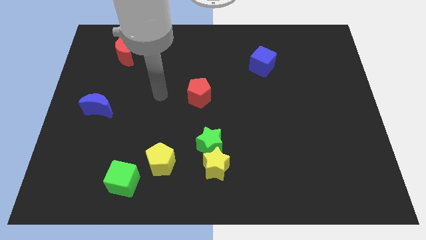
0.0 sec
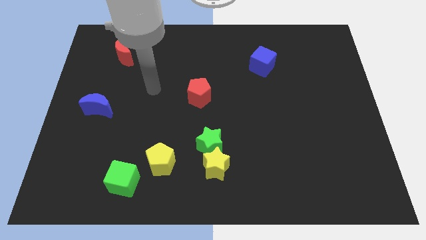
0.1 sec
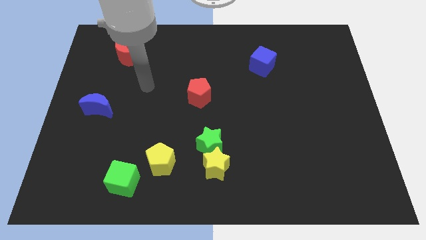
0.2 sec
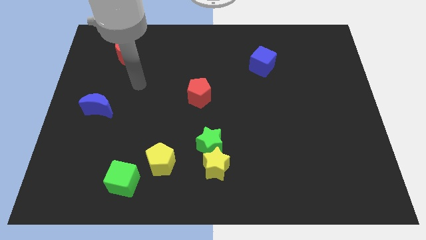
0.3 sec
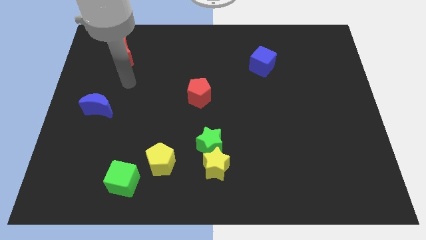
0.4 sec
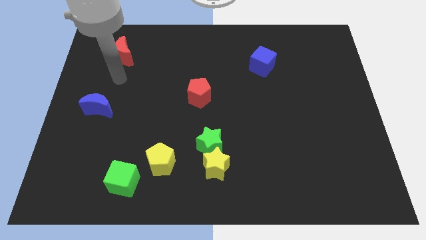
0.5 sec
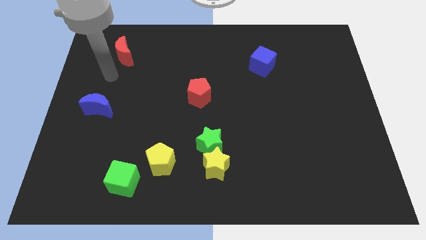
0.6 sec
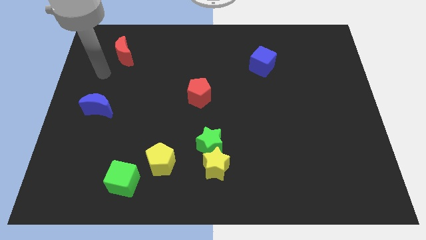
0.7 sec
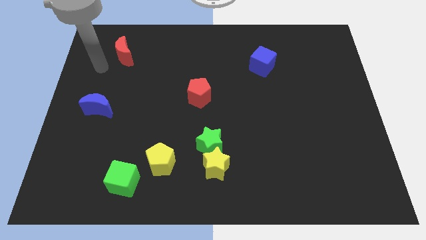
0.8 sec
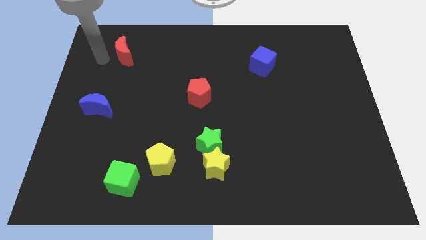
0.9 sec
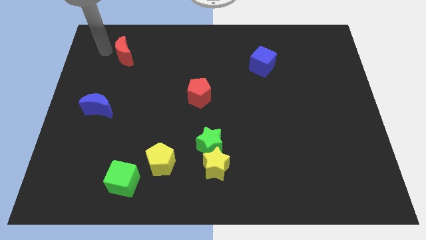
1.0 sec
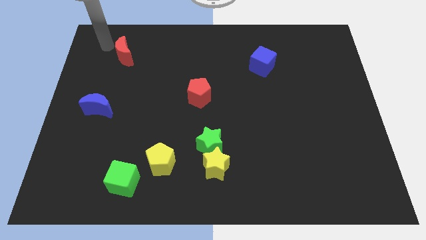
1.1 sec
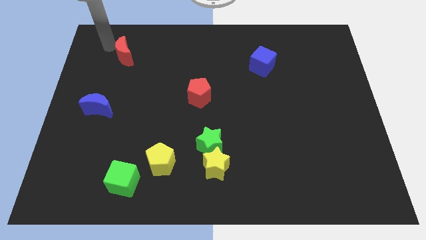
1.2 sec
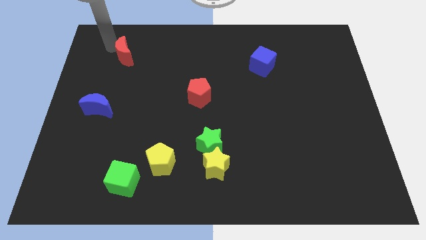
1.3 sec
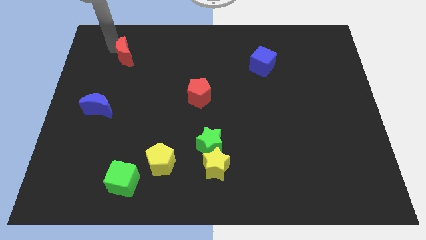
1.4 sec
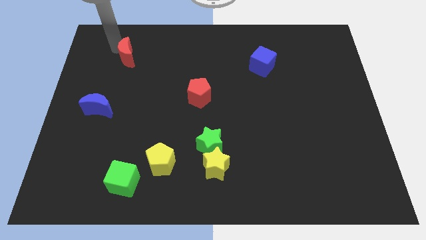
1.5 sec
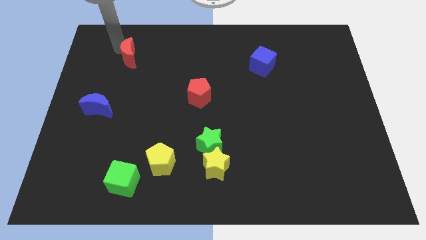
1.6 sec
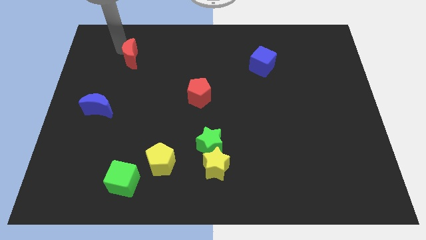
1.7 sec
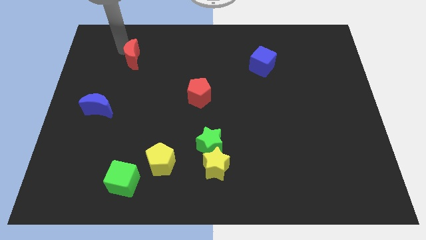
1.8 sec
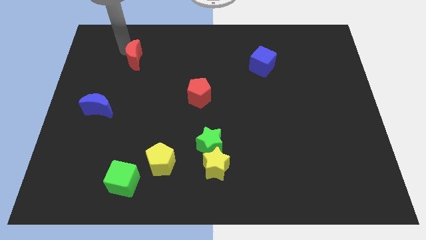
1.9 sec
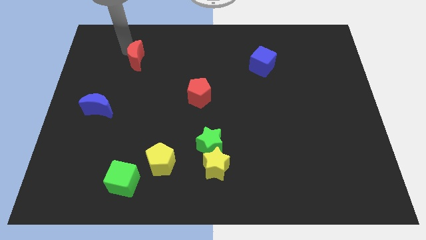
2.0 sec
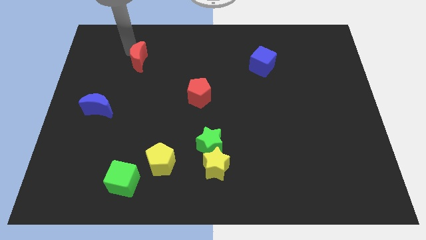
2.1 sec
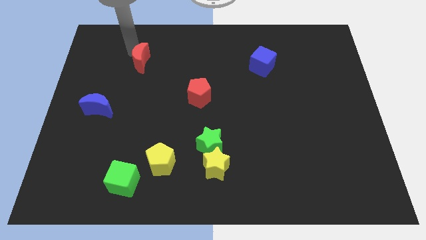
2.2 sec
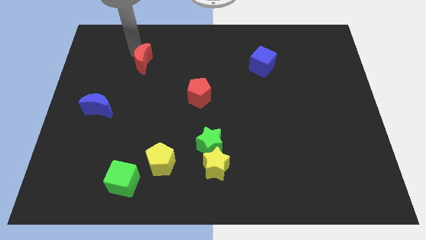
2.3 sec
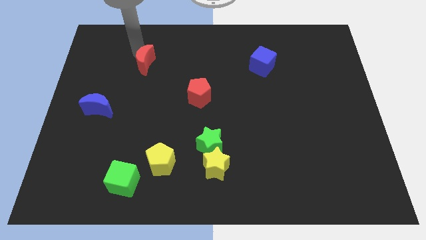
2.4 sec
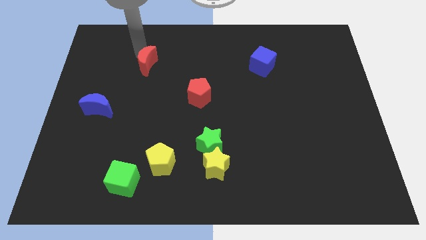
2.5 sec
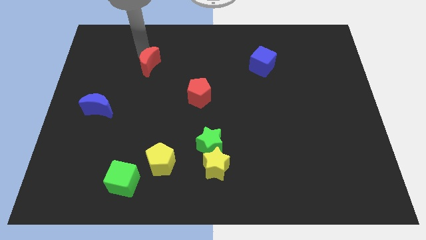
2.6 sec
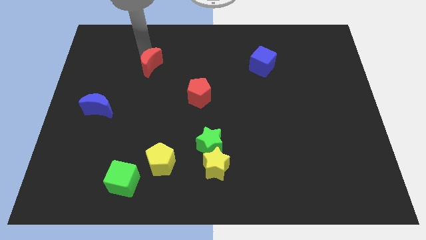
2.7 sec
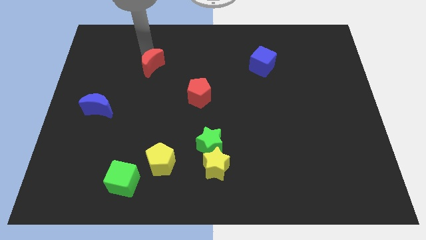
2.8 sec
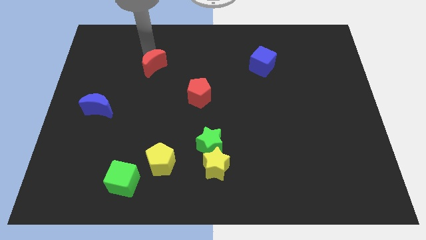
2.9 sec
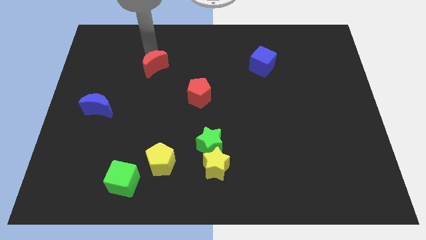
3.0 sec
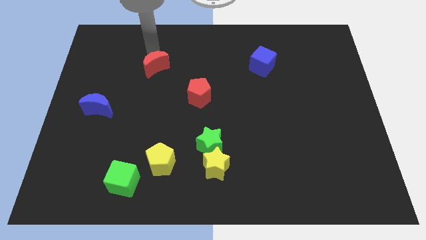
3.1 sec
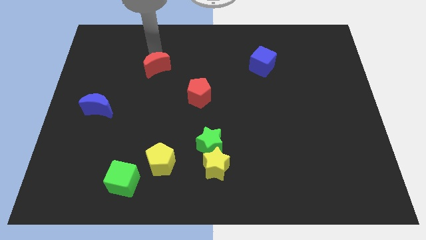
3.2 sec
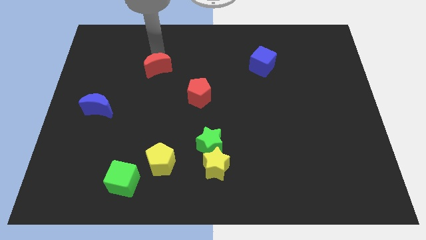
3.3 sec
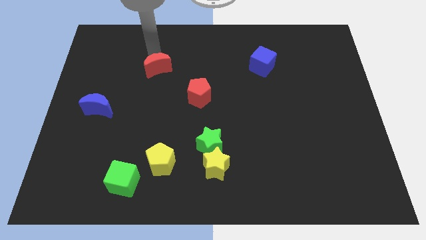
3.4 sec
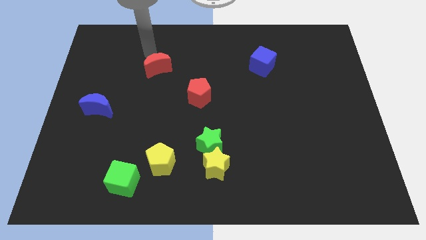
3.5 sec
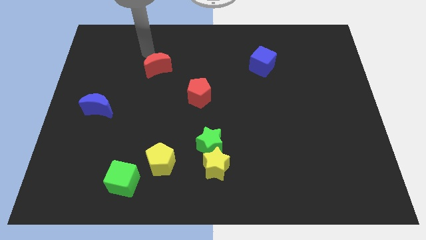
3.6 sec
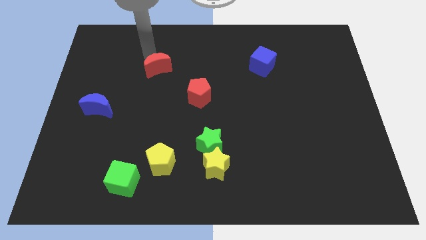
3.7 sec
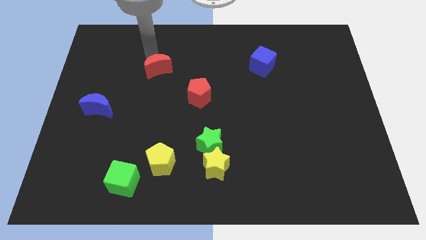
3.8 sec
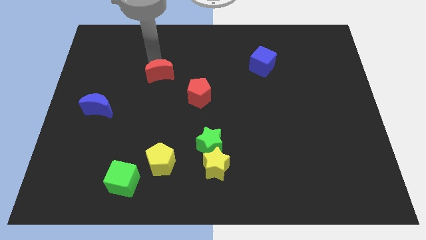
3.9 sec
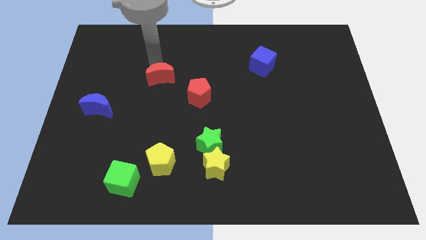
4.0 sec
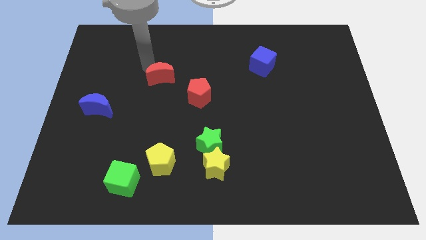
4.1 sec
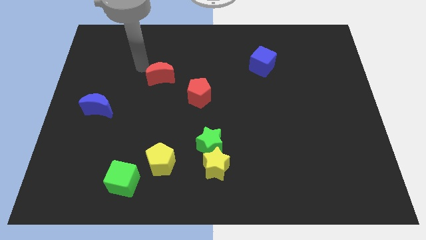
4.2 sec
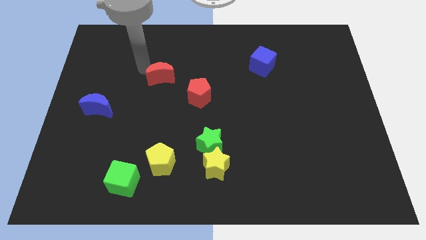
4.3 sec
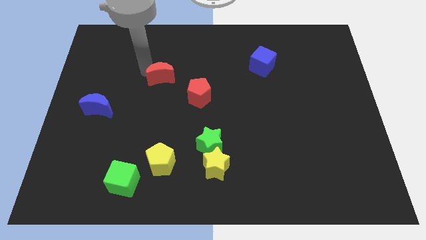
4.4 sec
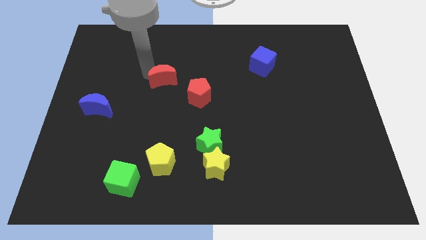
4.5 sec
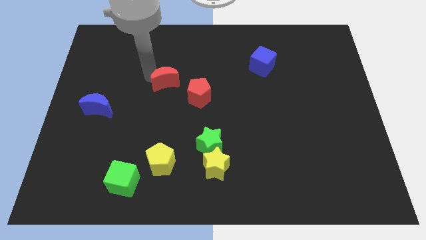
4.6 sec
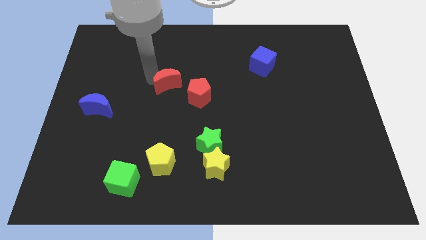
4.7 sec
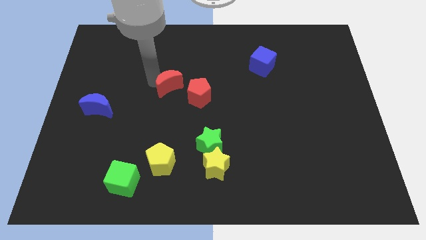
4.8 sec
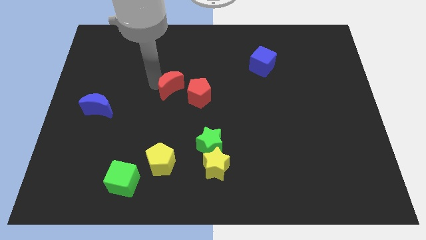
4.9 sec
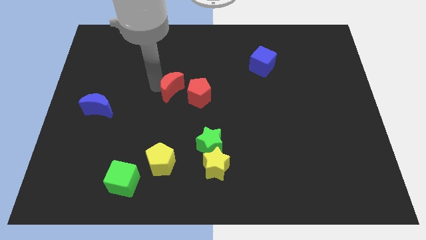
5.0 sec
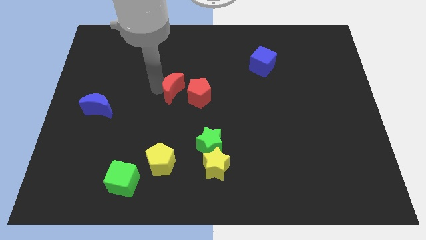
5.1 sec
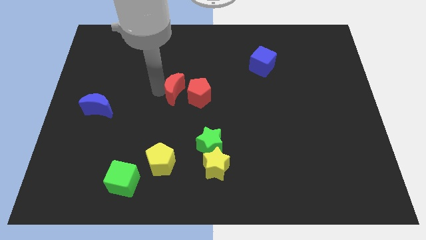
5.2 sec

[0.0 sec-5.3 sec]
move the red moon to the red pentagon

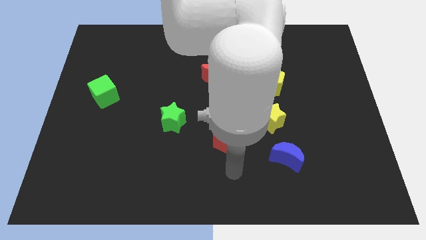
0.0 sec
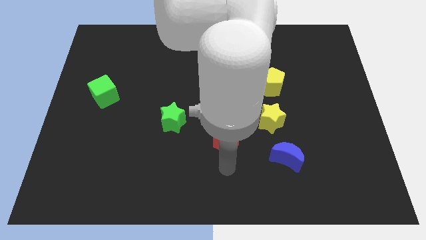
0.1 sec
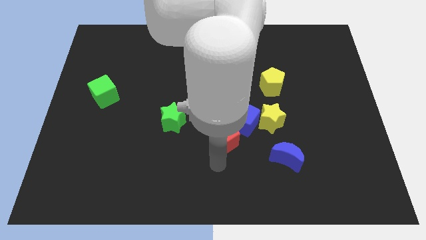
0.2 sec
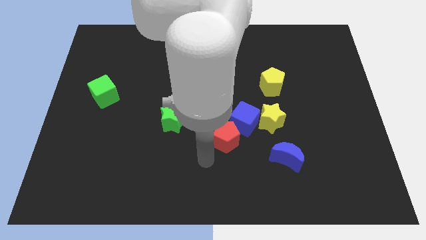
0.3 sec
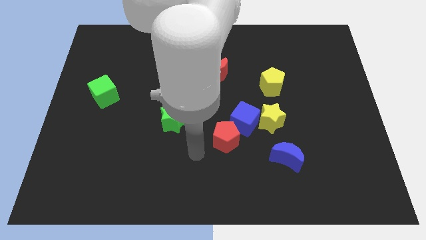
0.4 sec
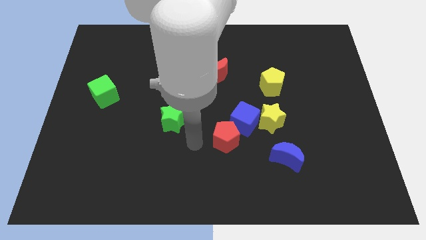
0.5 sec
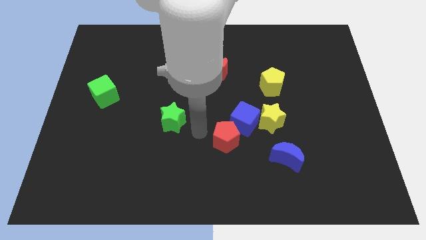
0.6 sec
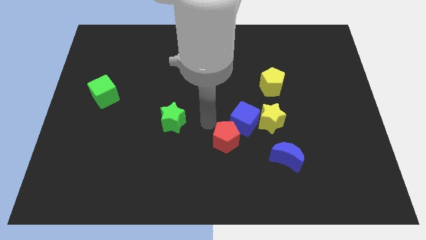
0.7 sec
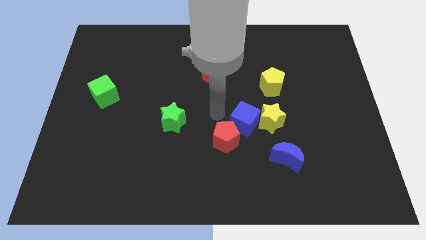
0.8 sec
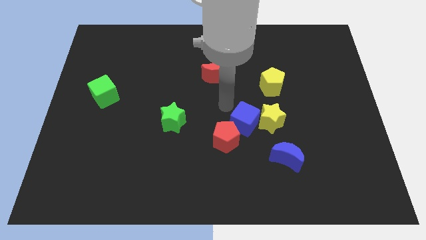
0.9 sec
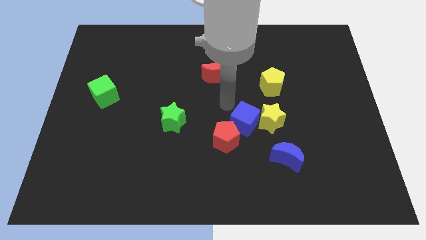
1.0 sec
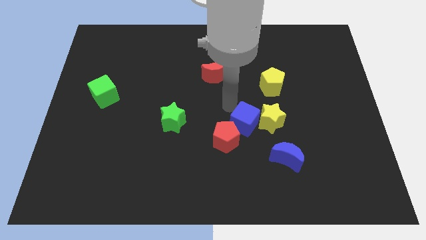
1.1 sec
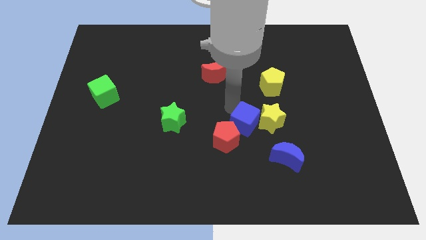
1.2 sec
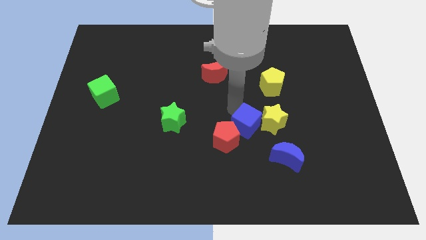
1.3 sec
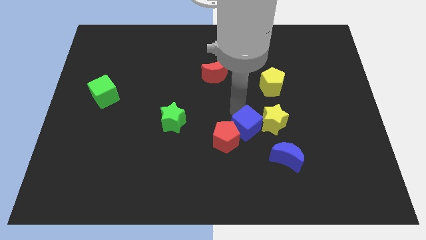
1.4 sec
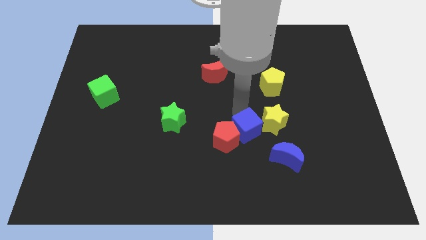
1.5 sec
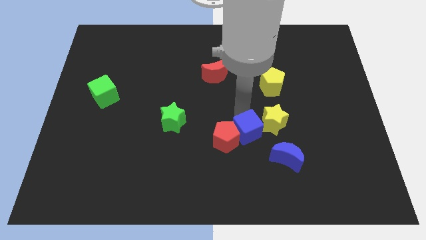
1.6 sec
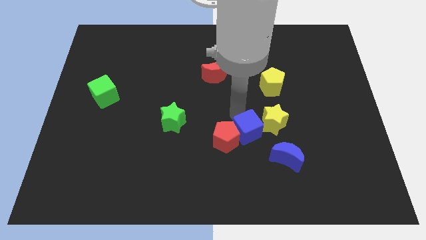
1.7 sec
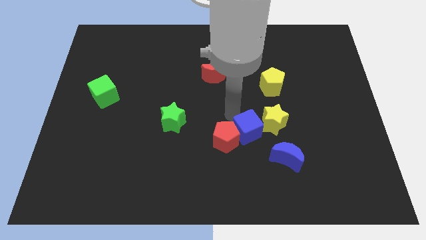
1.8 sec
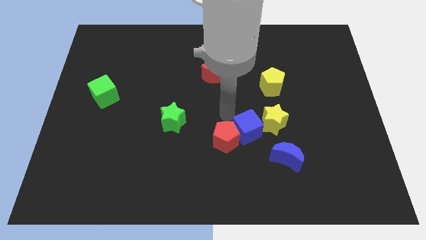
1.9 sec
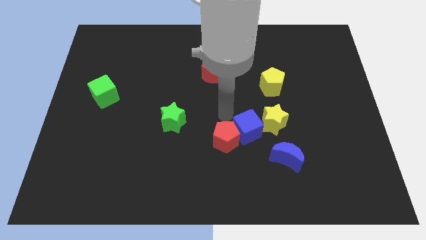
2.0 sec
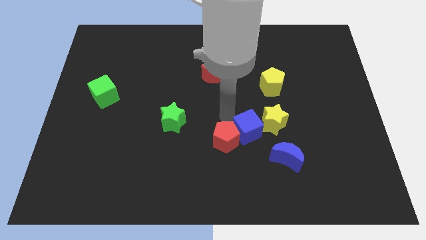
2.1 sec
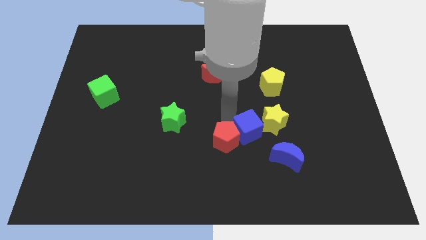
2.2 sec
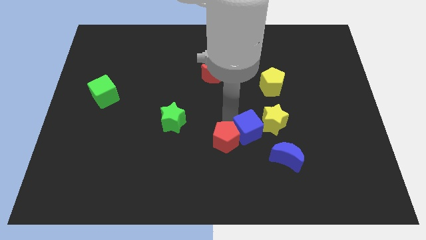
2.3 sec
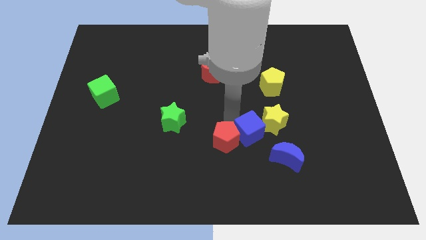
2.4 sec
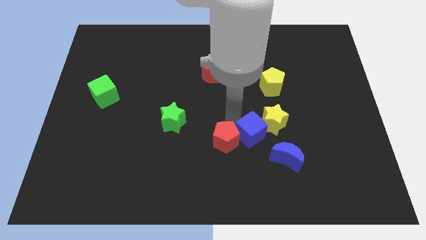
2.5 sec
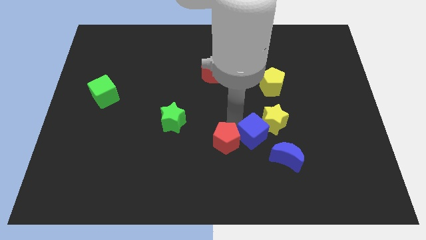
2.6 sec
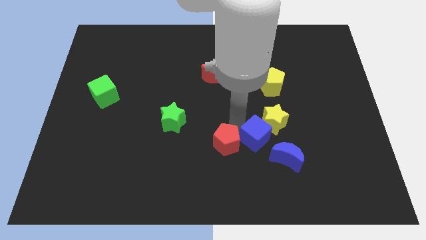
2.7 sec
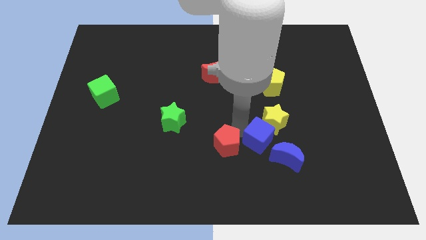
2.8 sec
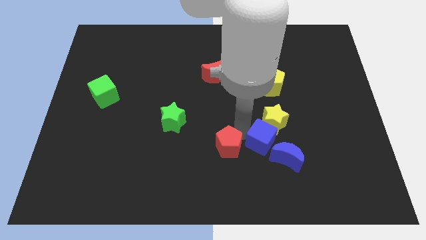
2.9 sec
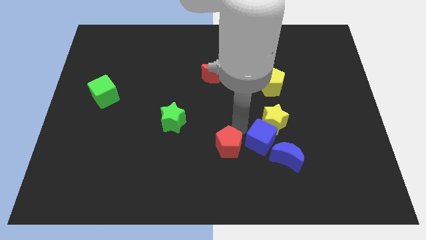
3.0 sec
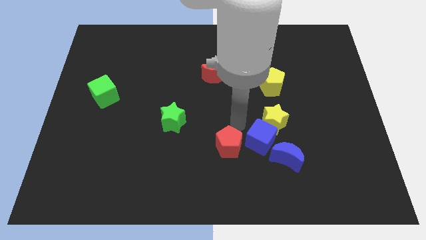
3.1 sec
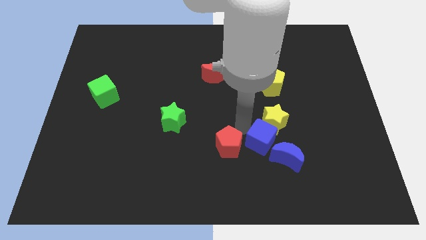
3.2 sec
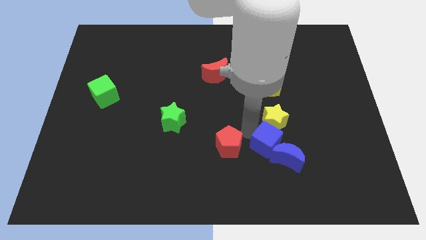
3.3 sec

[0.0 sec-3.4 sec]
slide the blue cube next to the blue moon
